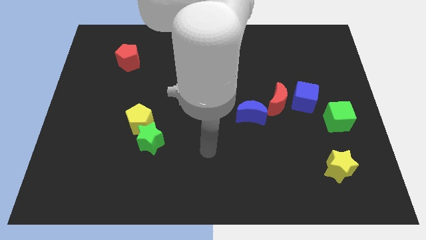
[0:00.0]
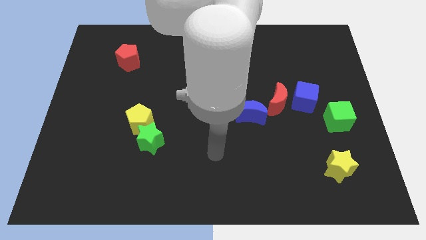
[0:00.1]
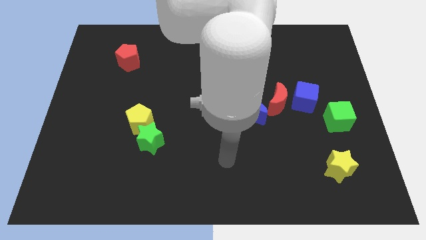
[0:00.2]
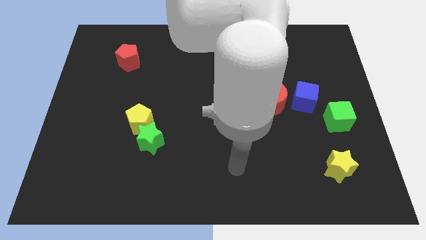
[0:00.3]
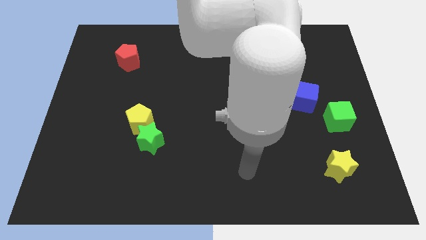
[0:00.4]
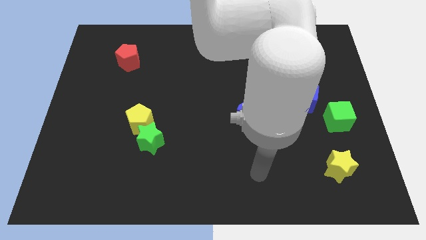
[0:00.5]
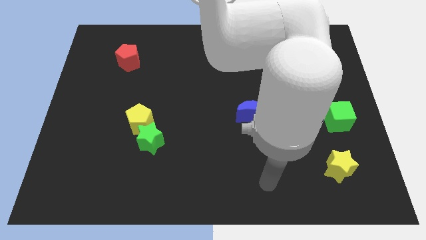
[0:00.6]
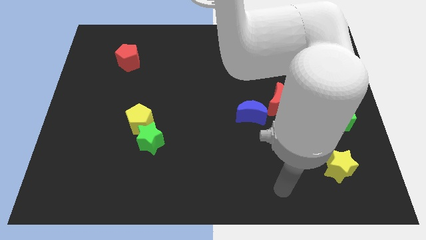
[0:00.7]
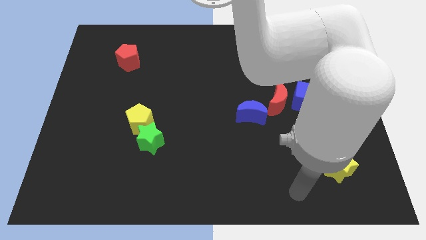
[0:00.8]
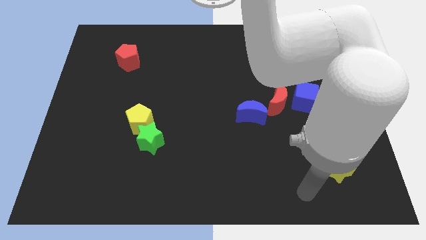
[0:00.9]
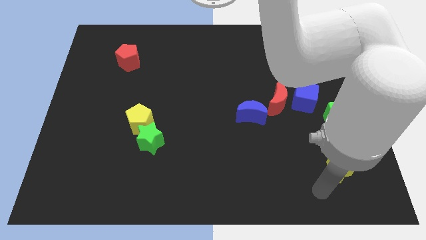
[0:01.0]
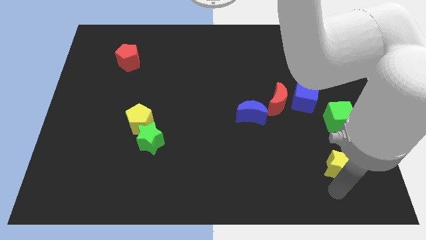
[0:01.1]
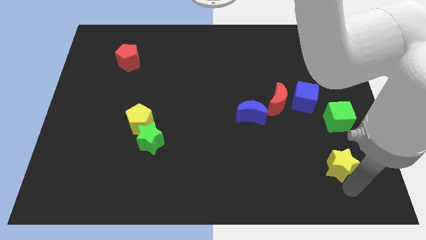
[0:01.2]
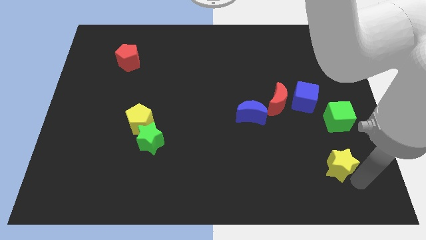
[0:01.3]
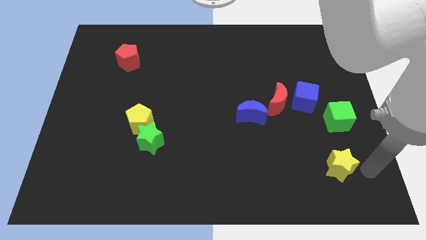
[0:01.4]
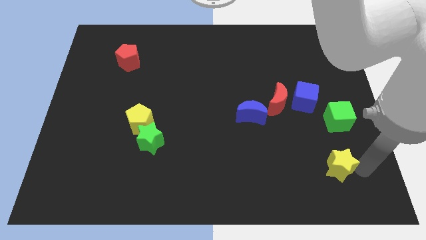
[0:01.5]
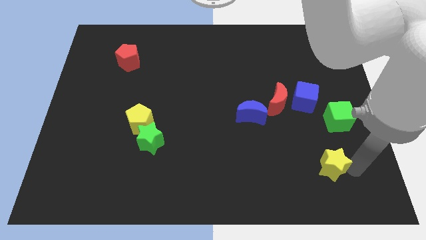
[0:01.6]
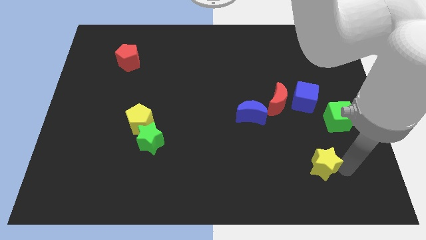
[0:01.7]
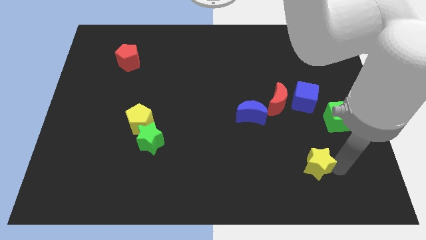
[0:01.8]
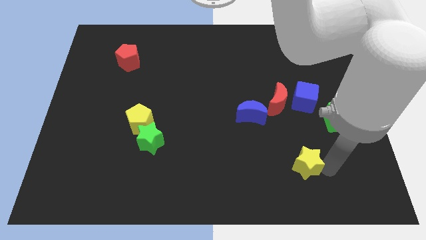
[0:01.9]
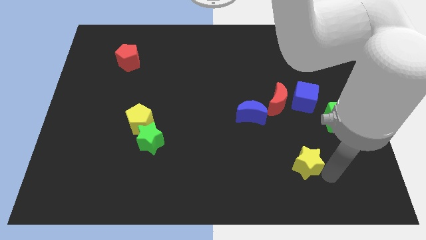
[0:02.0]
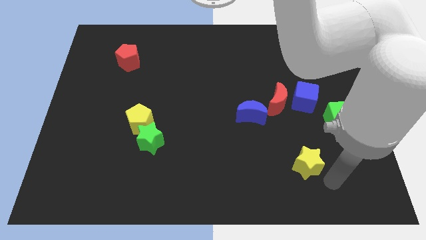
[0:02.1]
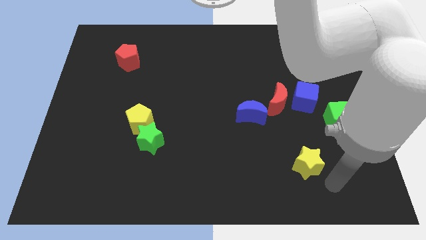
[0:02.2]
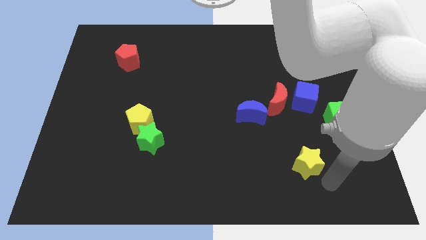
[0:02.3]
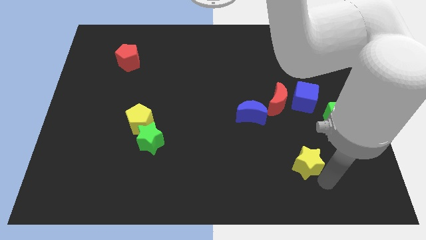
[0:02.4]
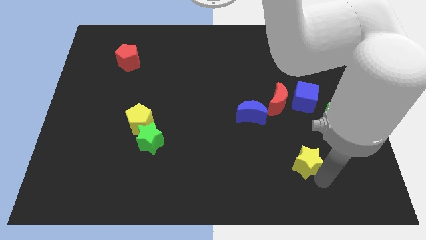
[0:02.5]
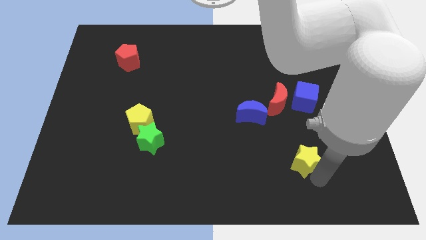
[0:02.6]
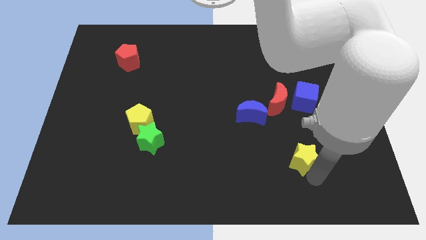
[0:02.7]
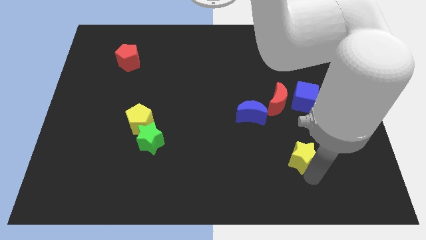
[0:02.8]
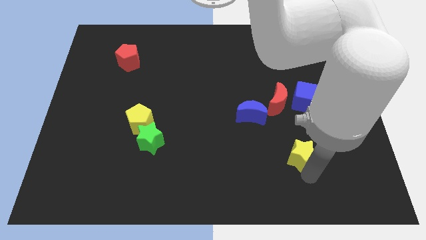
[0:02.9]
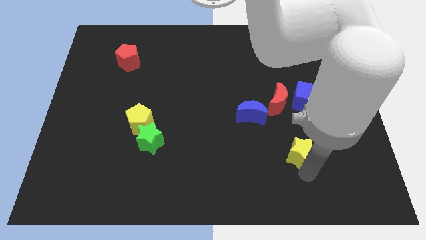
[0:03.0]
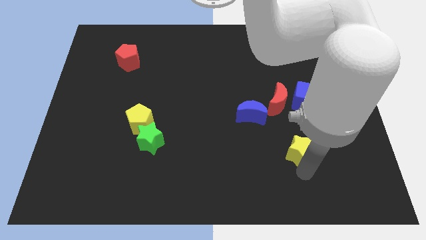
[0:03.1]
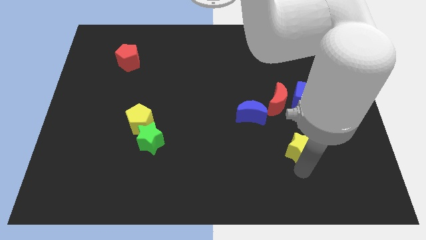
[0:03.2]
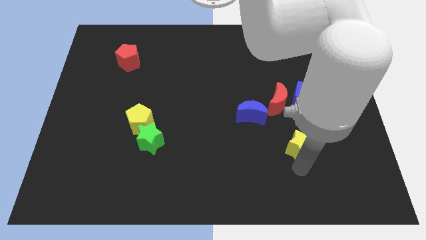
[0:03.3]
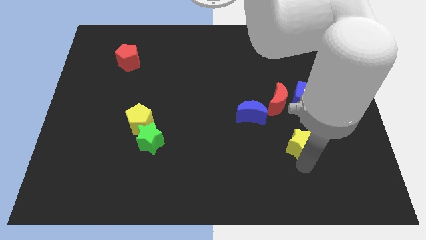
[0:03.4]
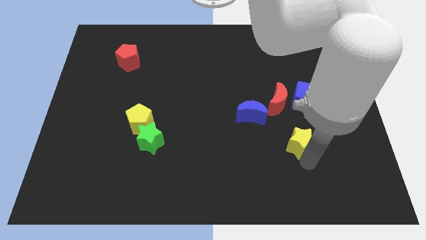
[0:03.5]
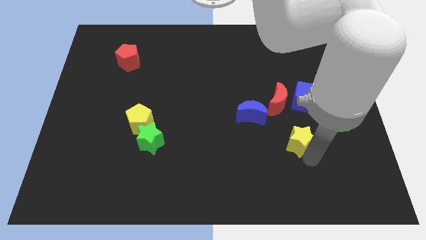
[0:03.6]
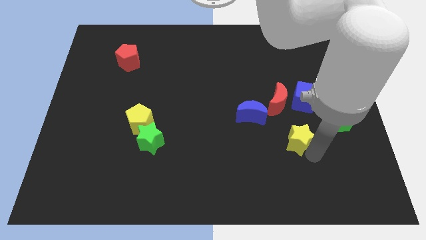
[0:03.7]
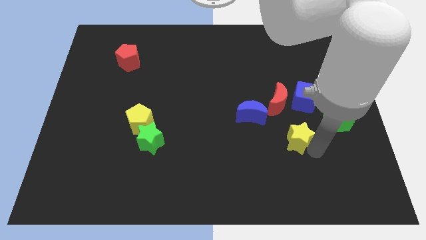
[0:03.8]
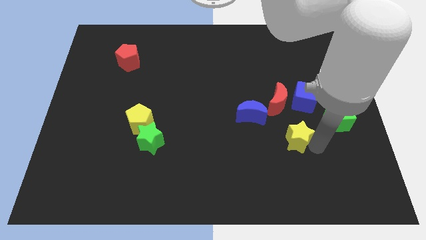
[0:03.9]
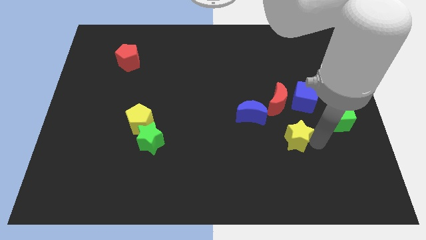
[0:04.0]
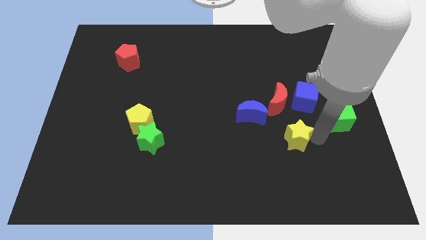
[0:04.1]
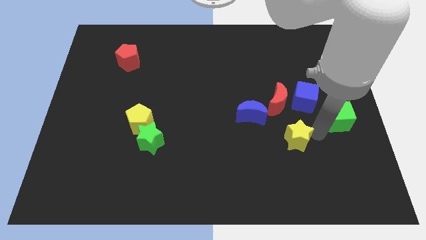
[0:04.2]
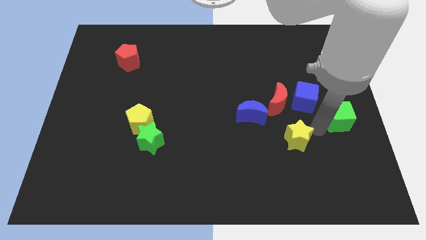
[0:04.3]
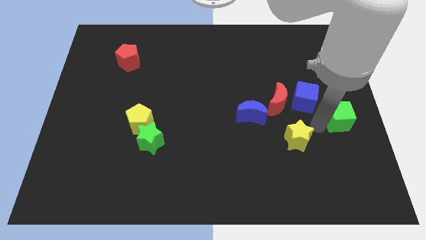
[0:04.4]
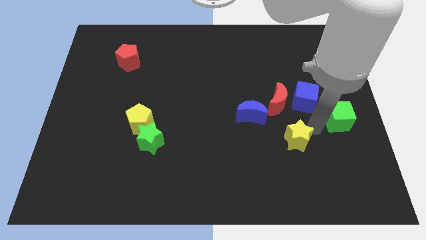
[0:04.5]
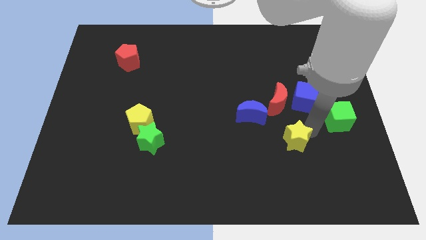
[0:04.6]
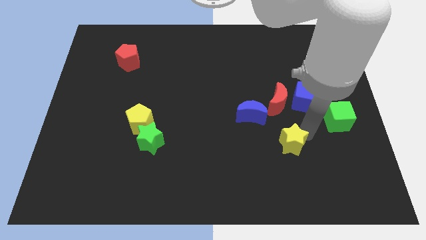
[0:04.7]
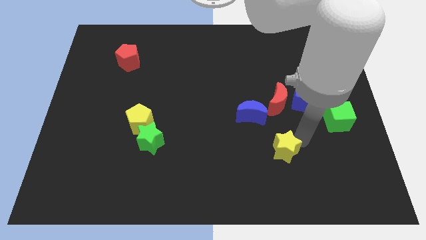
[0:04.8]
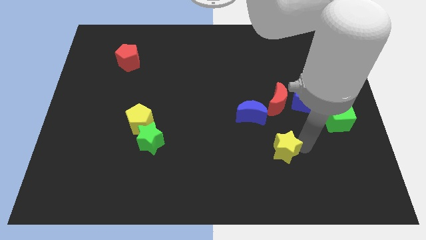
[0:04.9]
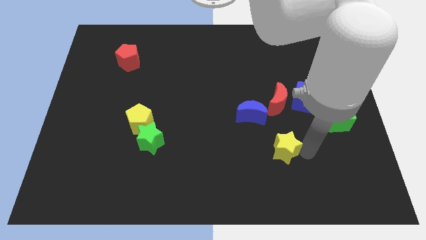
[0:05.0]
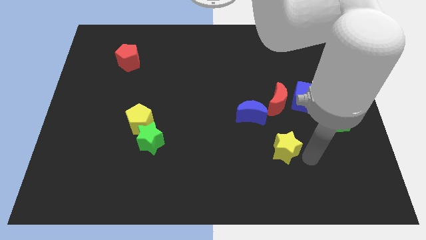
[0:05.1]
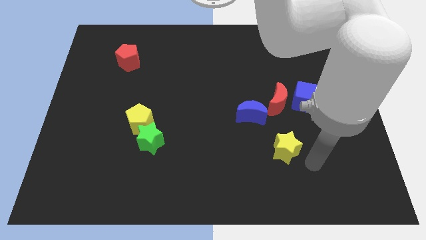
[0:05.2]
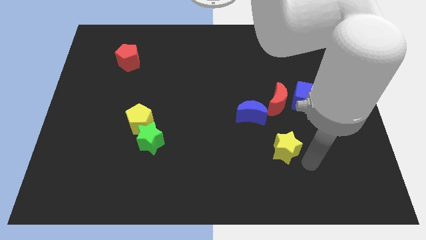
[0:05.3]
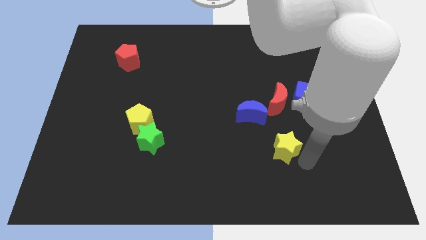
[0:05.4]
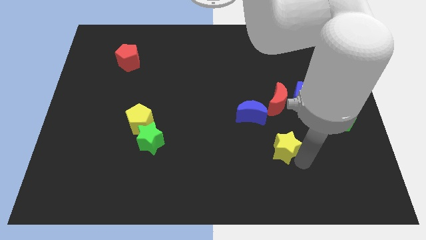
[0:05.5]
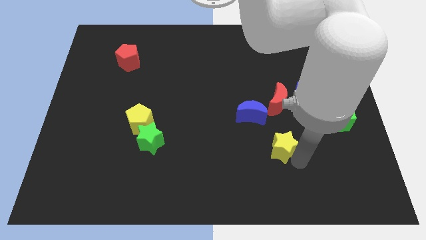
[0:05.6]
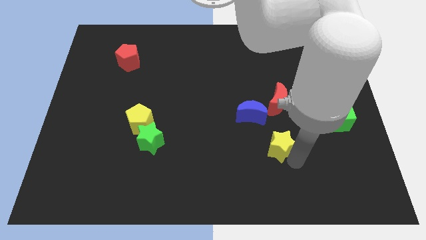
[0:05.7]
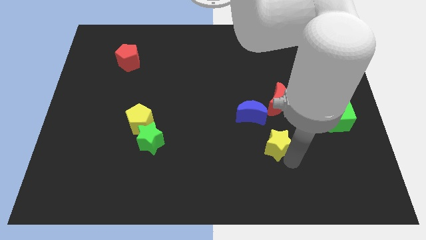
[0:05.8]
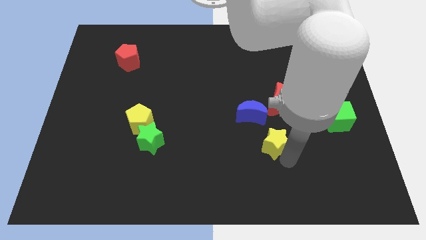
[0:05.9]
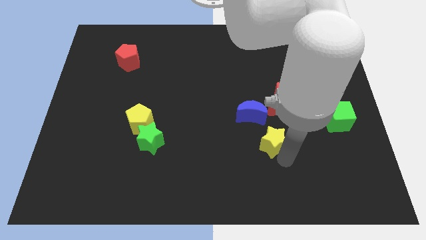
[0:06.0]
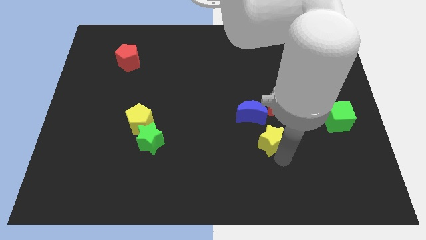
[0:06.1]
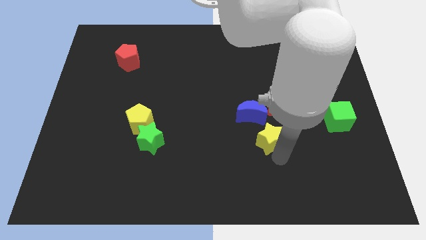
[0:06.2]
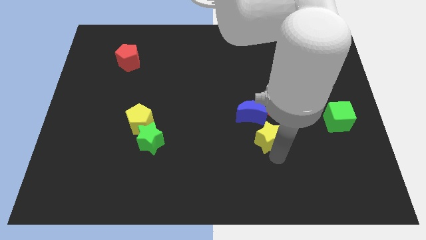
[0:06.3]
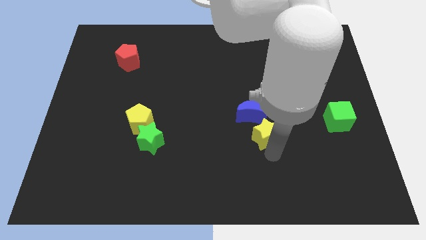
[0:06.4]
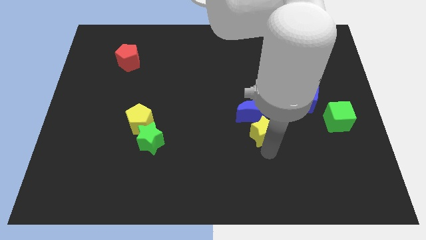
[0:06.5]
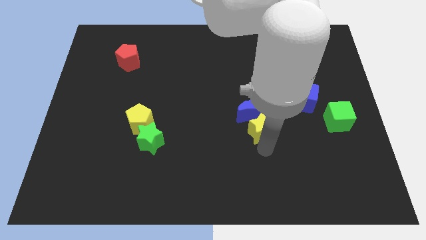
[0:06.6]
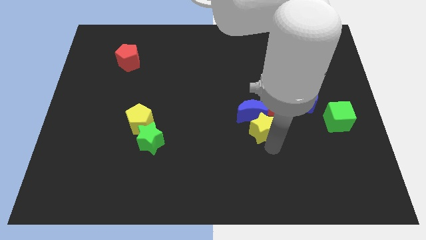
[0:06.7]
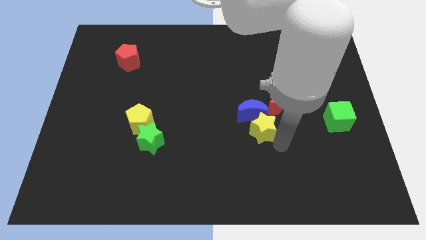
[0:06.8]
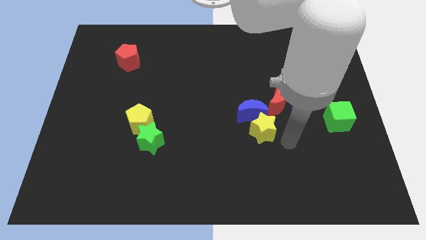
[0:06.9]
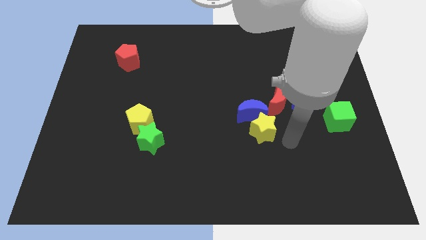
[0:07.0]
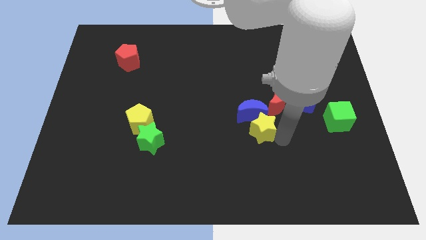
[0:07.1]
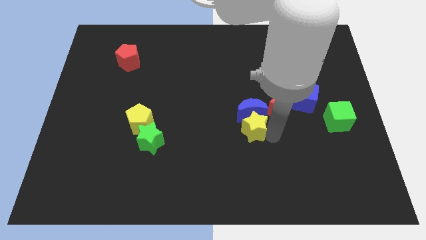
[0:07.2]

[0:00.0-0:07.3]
put the yellow star to the center
